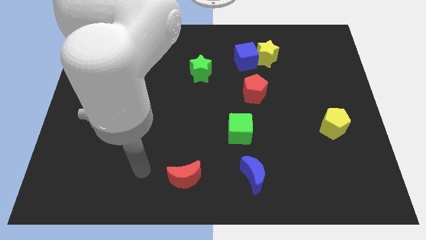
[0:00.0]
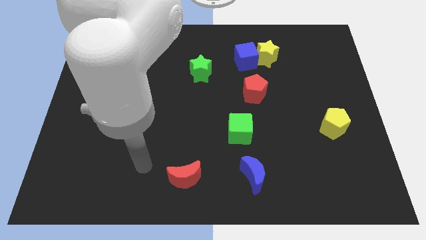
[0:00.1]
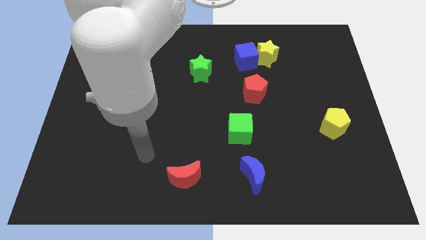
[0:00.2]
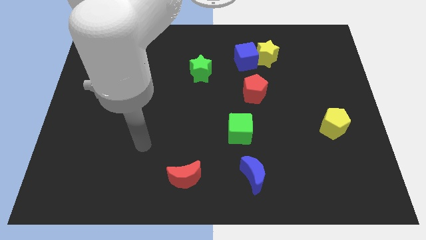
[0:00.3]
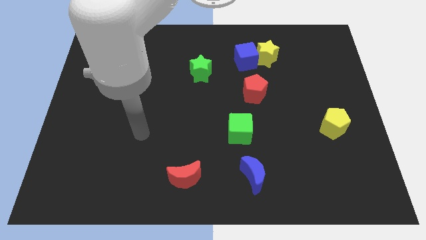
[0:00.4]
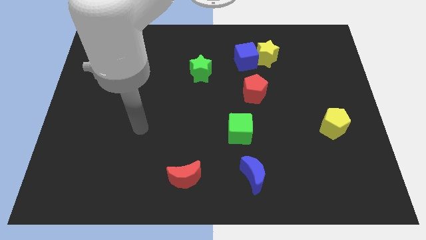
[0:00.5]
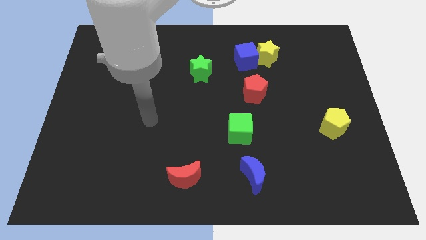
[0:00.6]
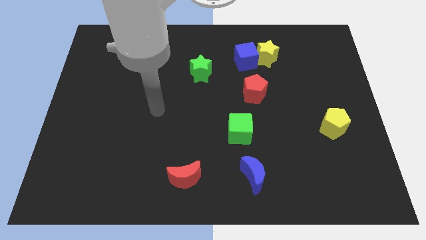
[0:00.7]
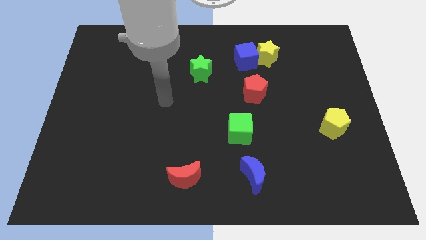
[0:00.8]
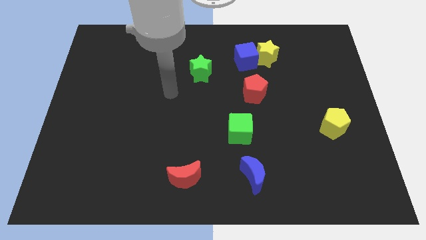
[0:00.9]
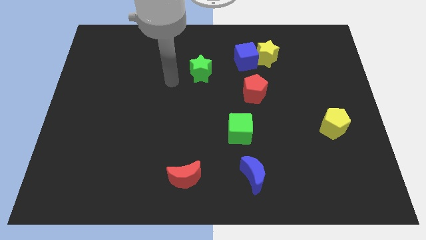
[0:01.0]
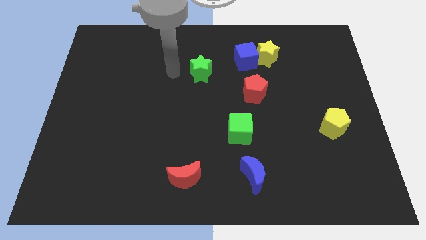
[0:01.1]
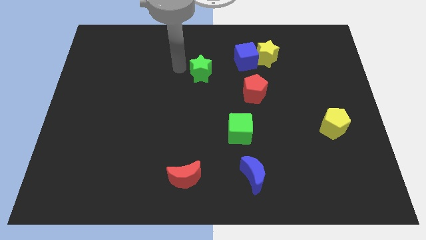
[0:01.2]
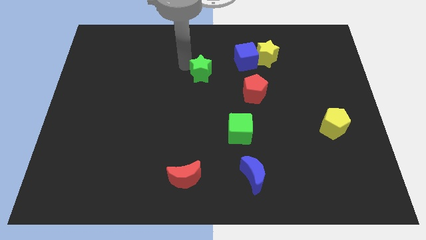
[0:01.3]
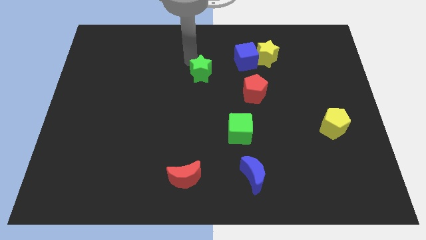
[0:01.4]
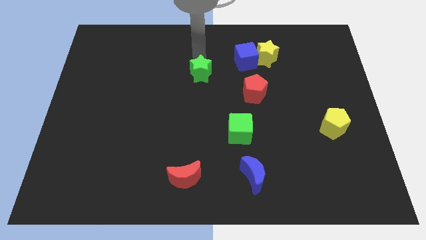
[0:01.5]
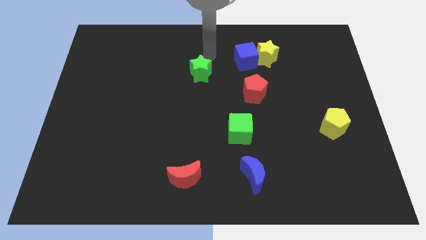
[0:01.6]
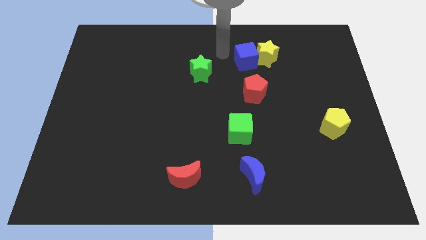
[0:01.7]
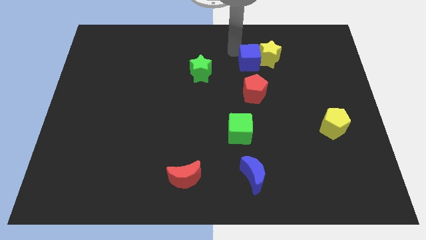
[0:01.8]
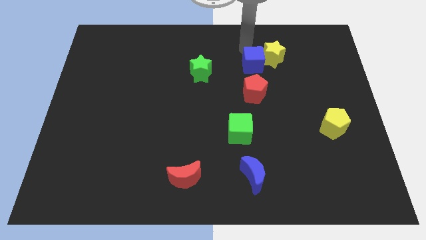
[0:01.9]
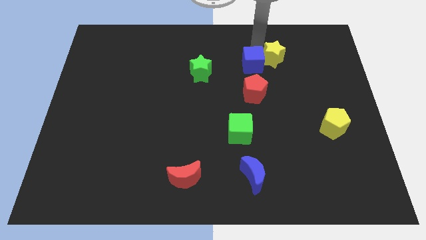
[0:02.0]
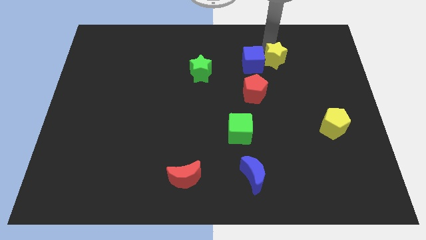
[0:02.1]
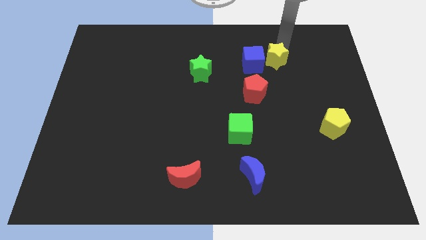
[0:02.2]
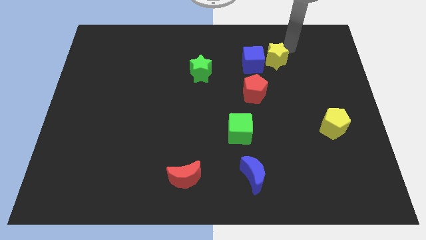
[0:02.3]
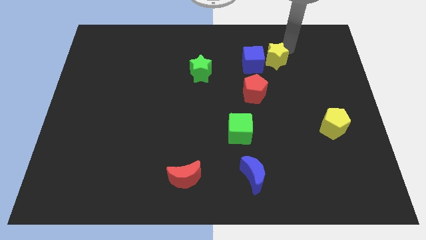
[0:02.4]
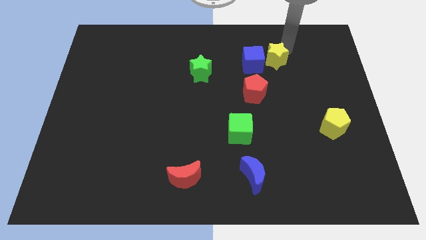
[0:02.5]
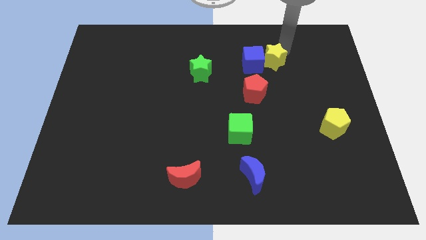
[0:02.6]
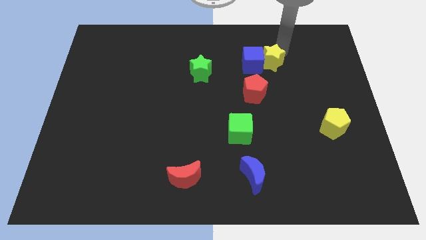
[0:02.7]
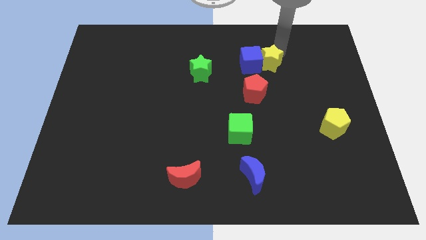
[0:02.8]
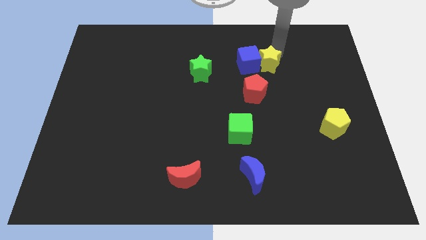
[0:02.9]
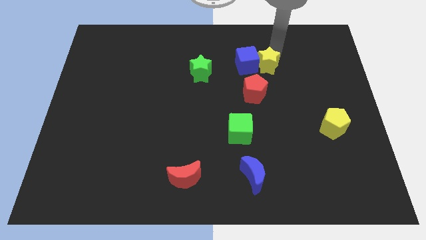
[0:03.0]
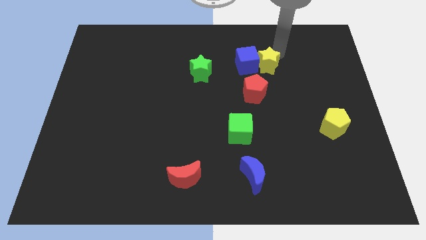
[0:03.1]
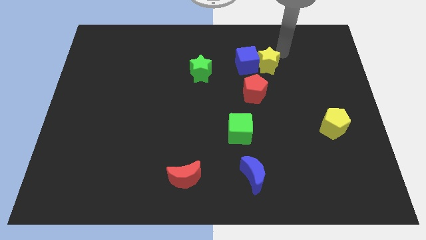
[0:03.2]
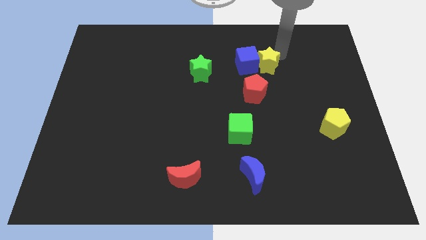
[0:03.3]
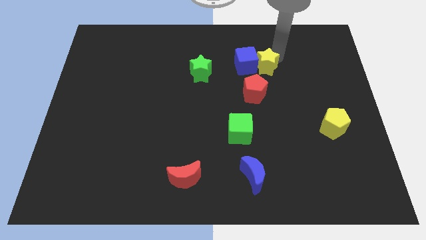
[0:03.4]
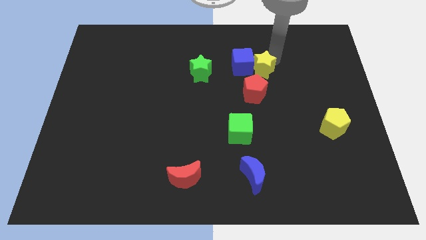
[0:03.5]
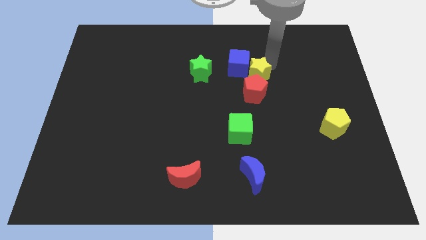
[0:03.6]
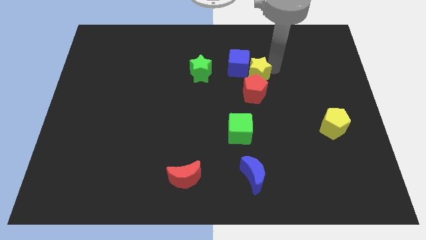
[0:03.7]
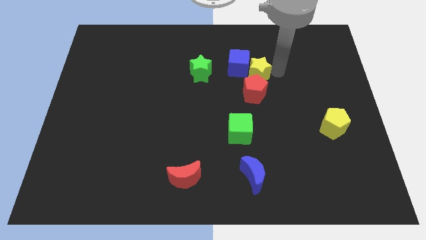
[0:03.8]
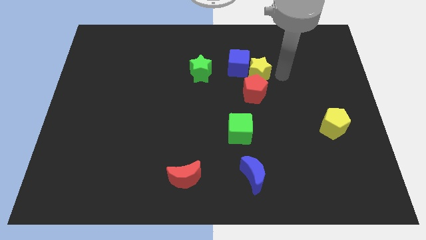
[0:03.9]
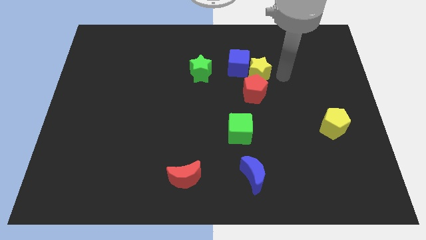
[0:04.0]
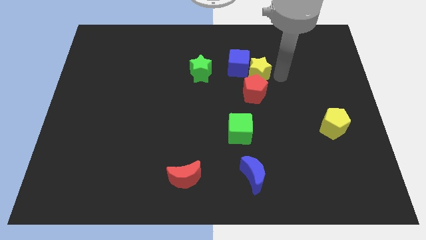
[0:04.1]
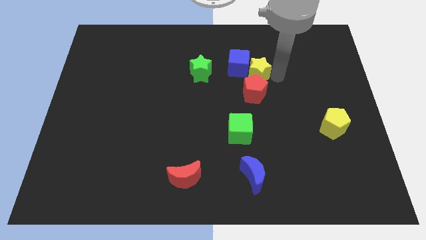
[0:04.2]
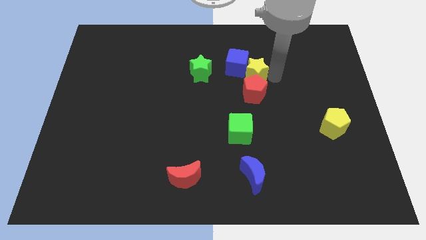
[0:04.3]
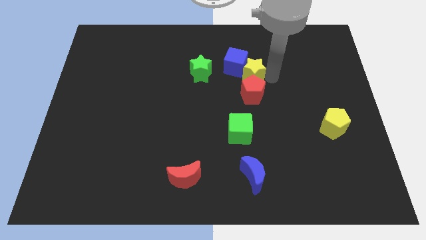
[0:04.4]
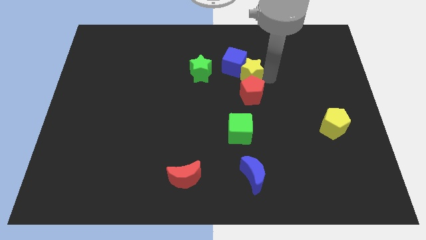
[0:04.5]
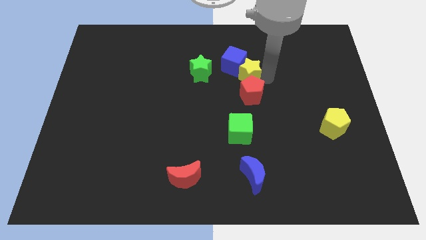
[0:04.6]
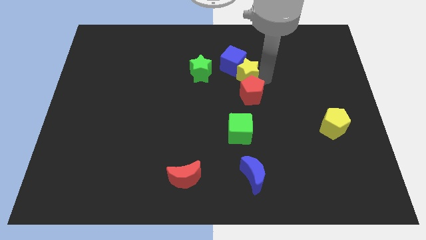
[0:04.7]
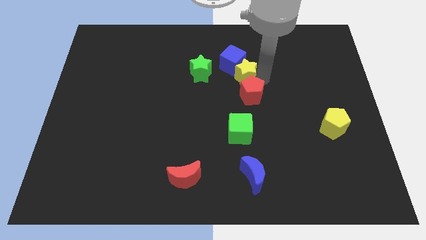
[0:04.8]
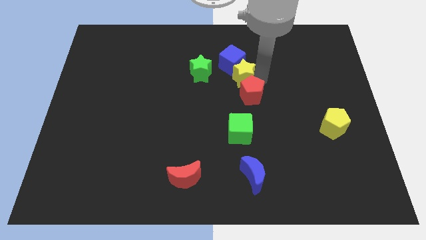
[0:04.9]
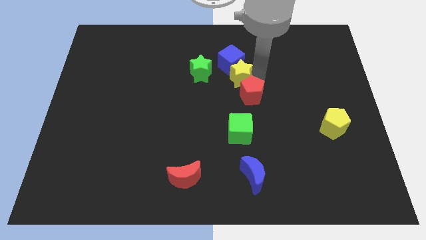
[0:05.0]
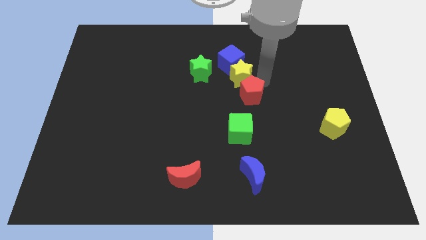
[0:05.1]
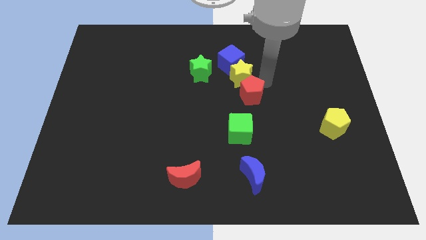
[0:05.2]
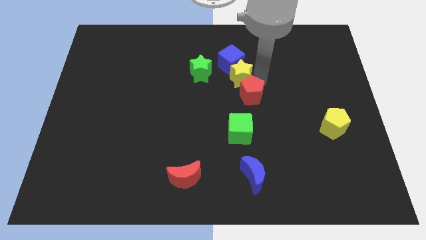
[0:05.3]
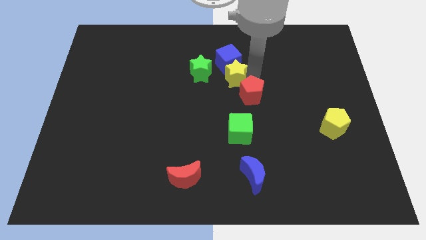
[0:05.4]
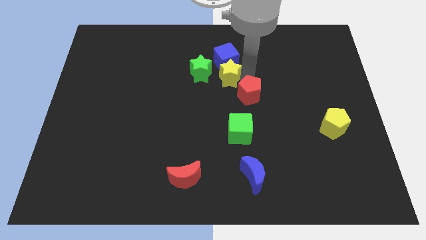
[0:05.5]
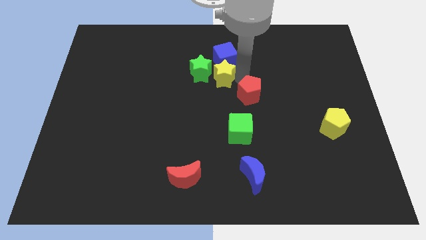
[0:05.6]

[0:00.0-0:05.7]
slide the yellow star next to the green star

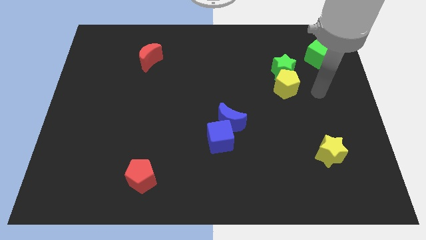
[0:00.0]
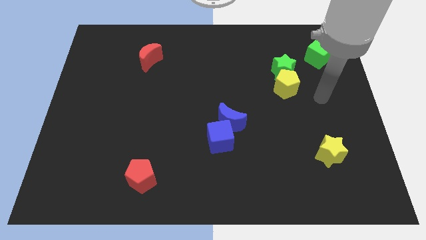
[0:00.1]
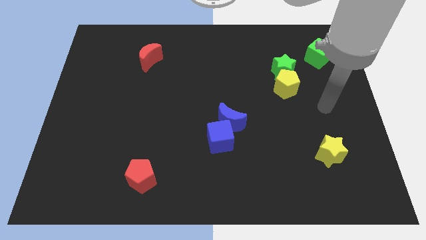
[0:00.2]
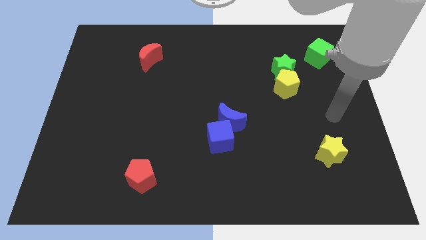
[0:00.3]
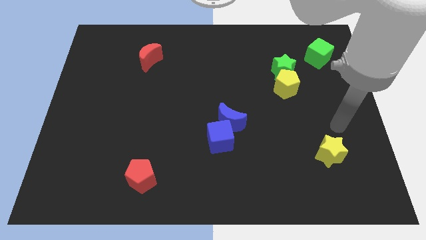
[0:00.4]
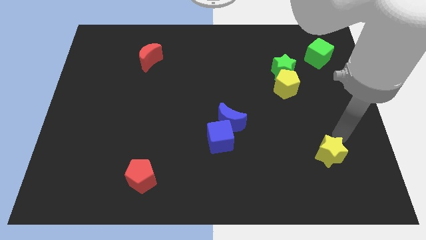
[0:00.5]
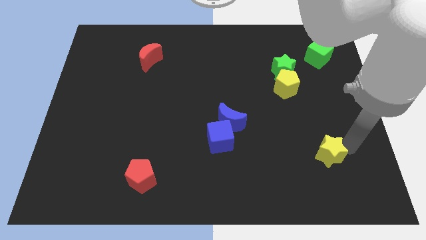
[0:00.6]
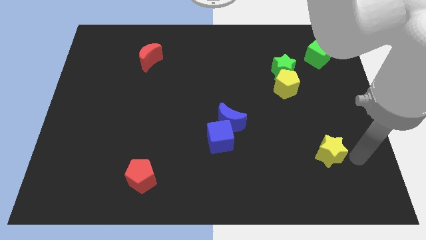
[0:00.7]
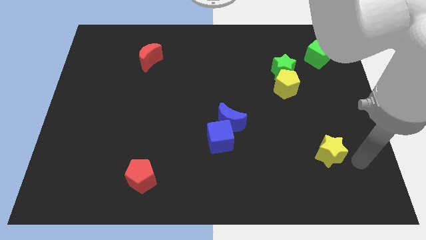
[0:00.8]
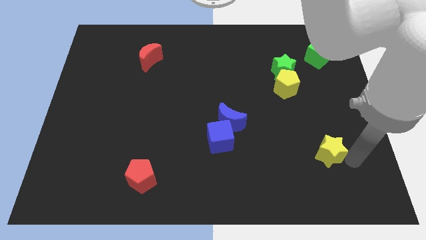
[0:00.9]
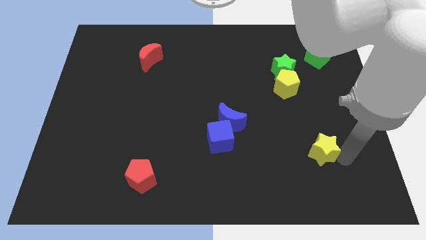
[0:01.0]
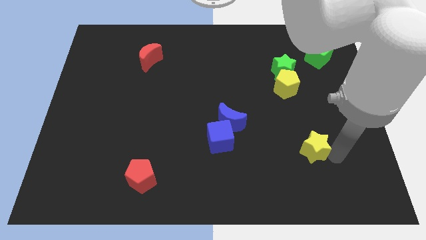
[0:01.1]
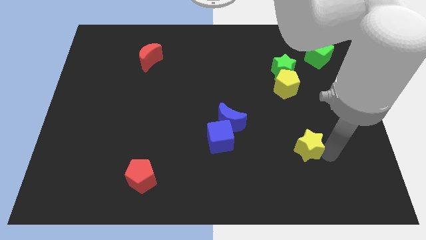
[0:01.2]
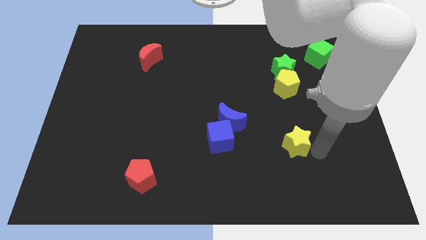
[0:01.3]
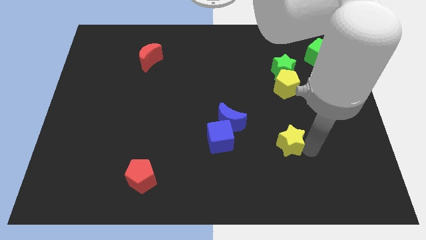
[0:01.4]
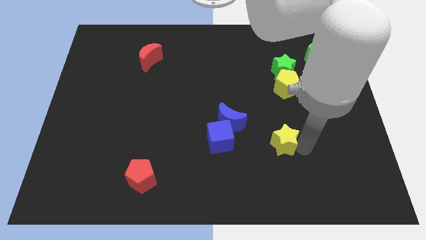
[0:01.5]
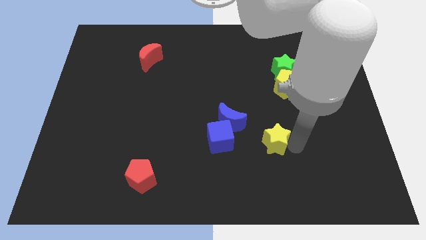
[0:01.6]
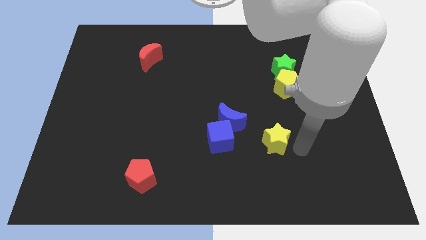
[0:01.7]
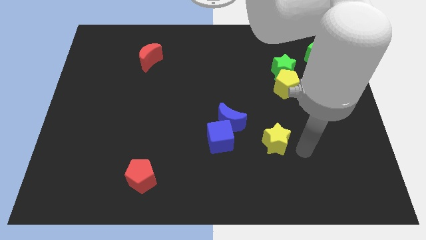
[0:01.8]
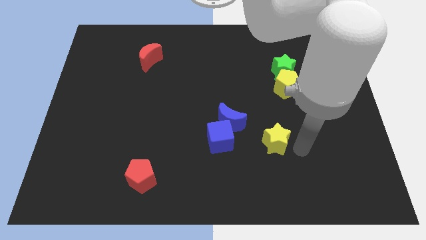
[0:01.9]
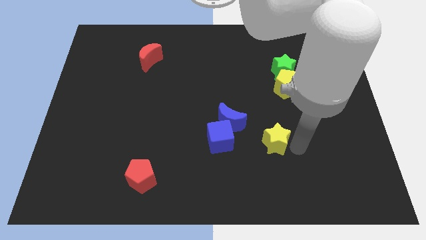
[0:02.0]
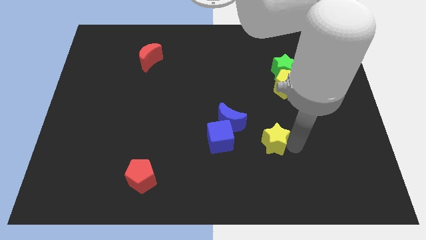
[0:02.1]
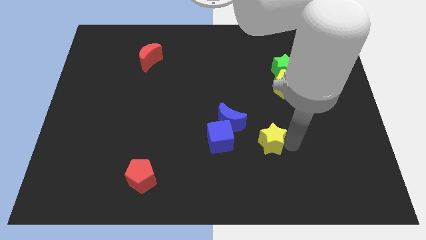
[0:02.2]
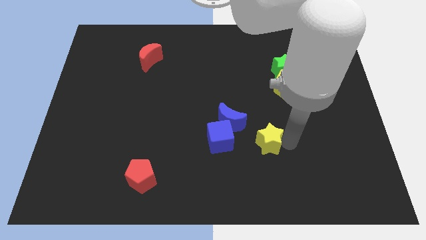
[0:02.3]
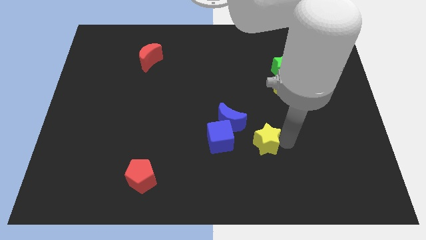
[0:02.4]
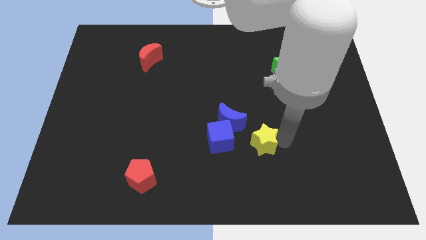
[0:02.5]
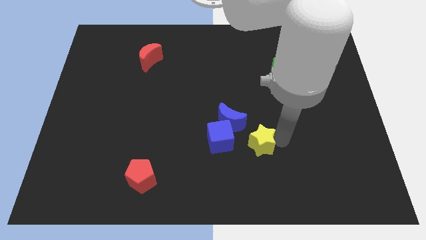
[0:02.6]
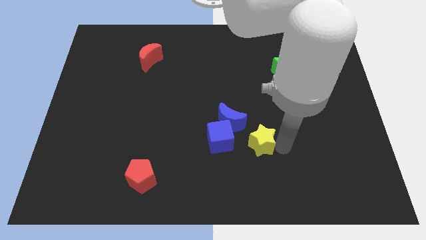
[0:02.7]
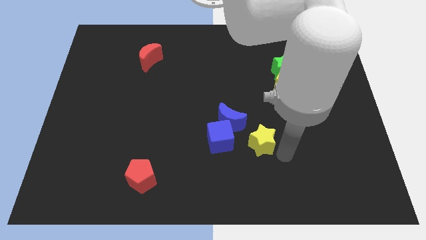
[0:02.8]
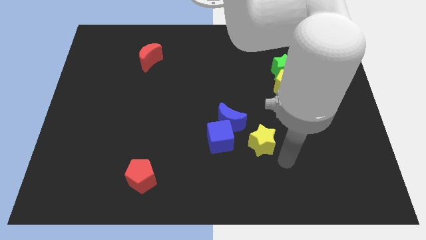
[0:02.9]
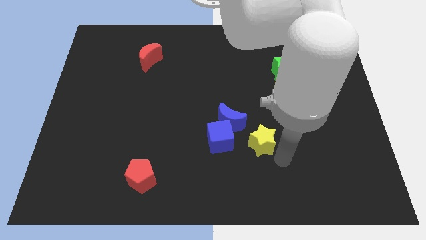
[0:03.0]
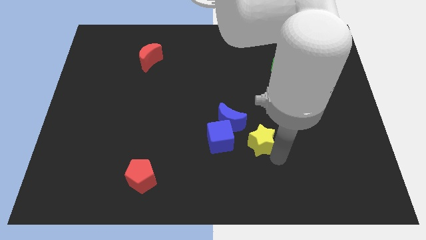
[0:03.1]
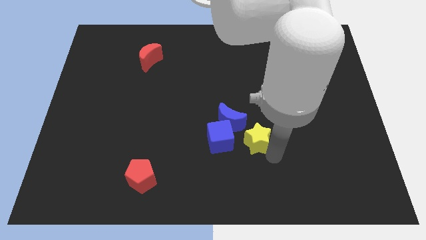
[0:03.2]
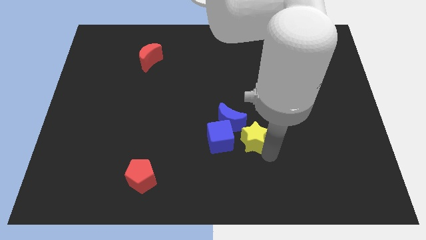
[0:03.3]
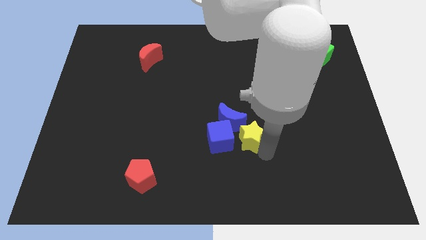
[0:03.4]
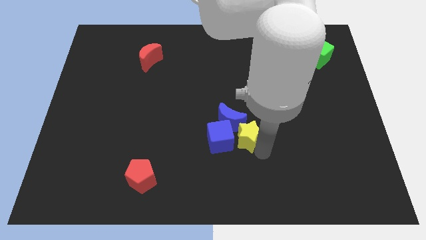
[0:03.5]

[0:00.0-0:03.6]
slide the yellow star close to the blue moon
